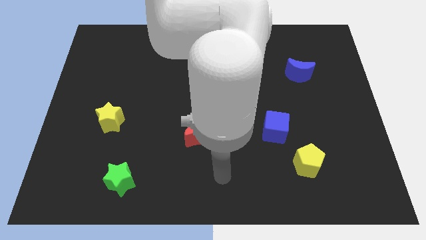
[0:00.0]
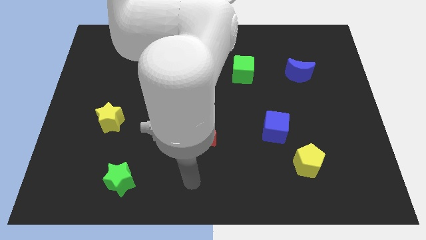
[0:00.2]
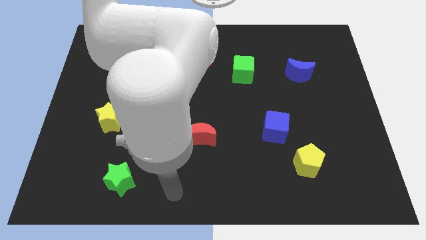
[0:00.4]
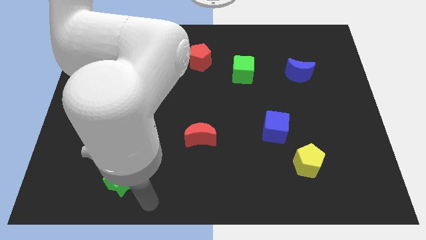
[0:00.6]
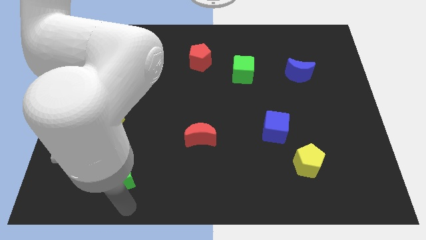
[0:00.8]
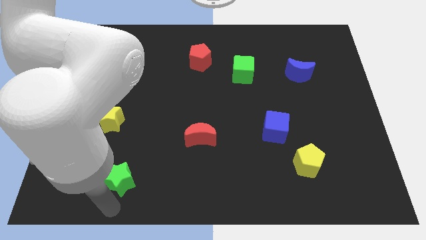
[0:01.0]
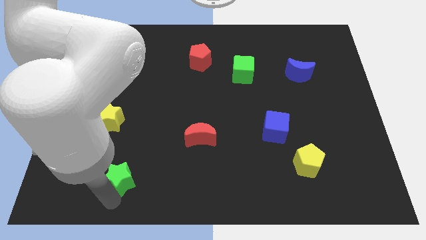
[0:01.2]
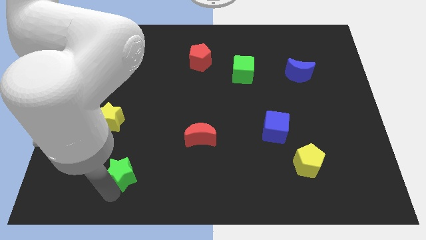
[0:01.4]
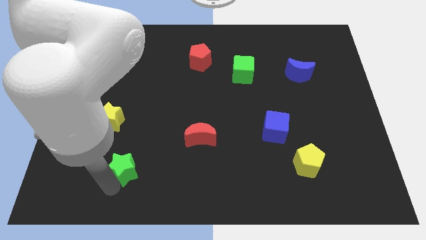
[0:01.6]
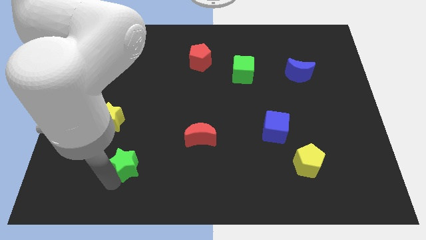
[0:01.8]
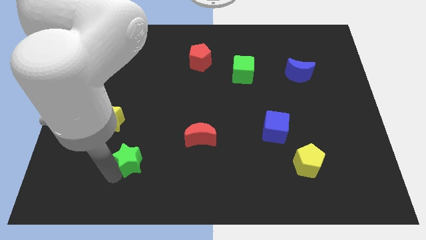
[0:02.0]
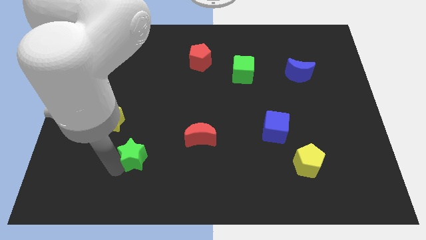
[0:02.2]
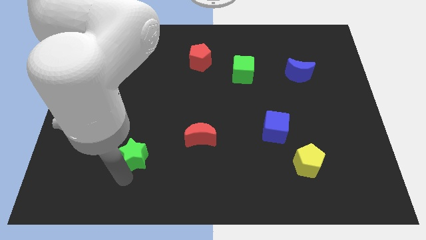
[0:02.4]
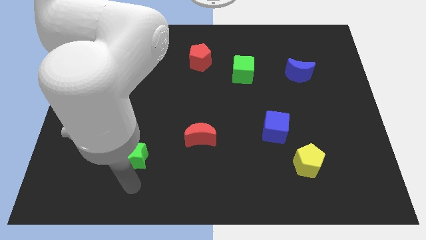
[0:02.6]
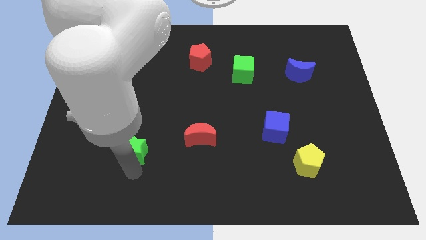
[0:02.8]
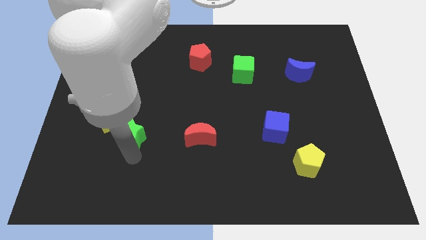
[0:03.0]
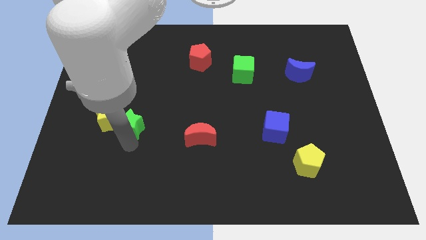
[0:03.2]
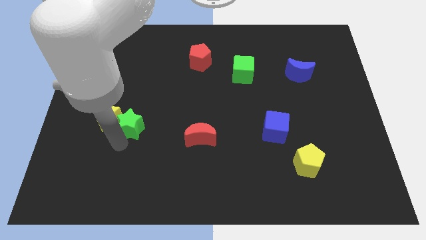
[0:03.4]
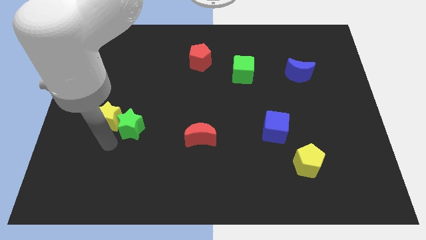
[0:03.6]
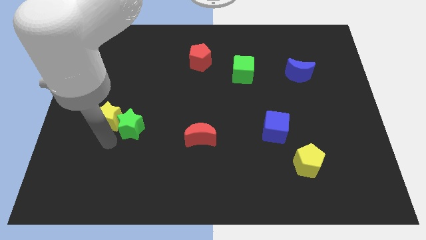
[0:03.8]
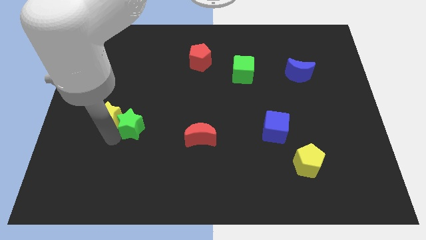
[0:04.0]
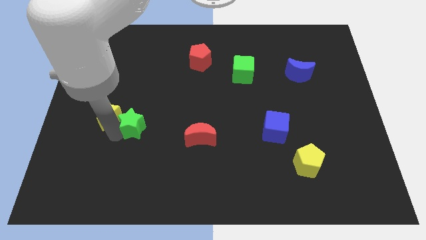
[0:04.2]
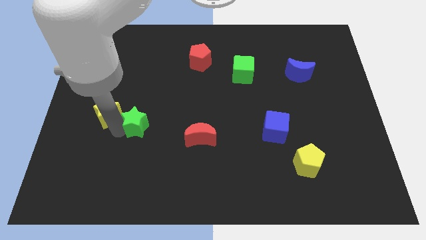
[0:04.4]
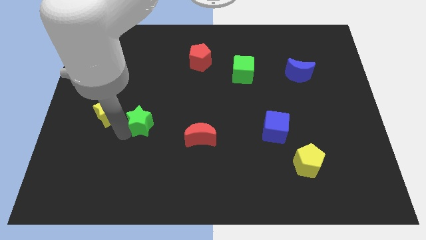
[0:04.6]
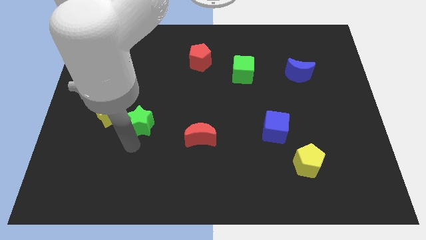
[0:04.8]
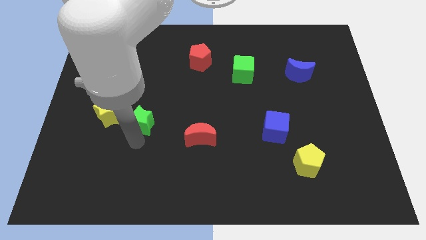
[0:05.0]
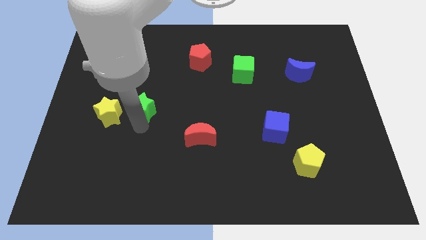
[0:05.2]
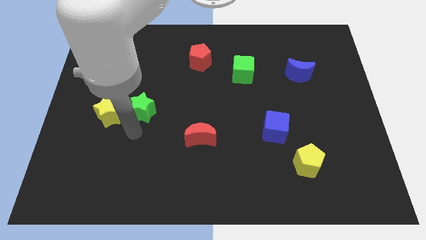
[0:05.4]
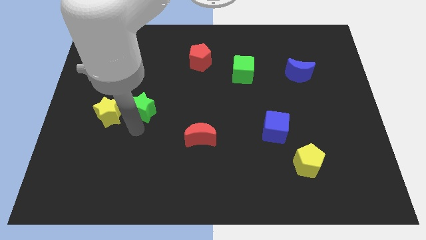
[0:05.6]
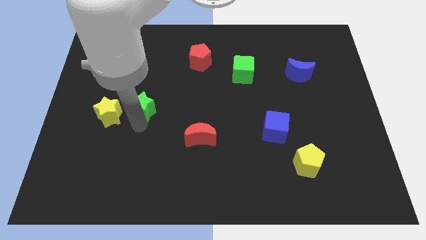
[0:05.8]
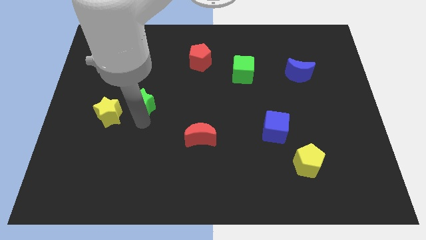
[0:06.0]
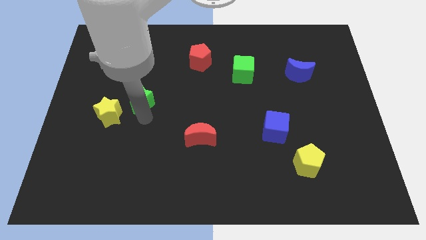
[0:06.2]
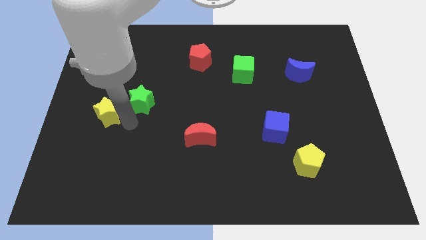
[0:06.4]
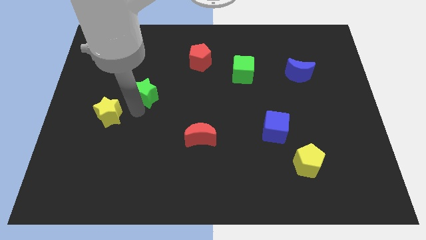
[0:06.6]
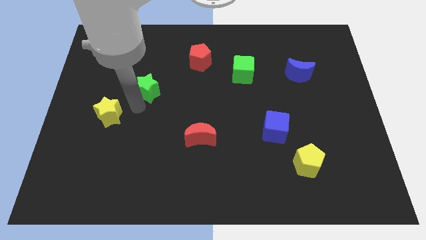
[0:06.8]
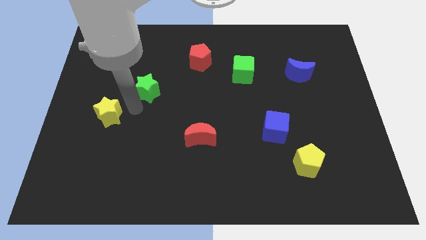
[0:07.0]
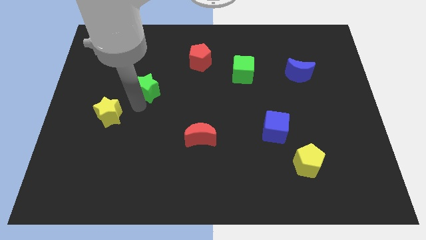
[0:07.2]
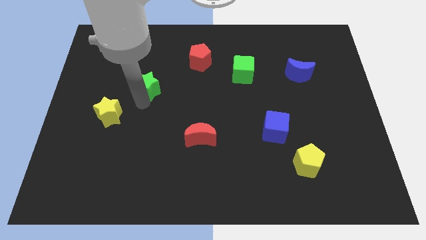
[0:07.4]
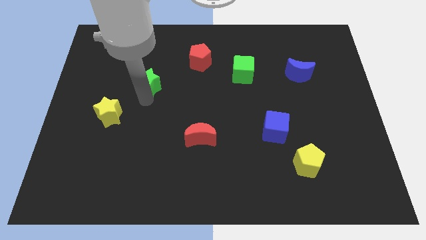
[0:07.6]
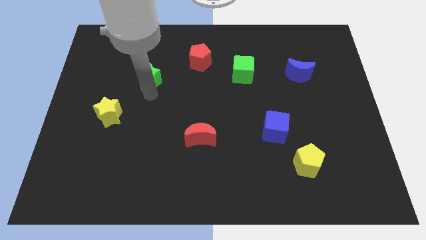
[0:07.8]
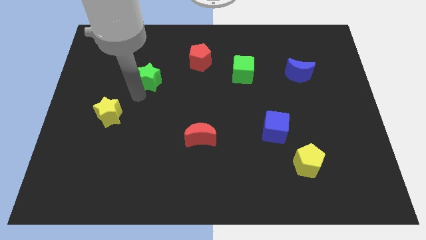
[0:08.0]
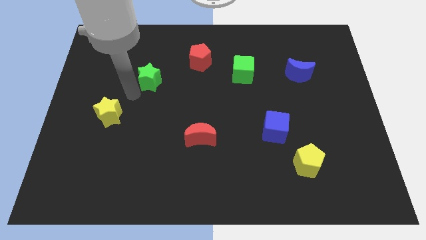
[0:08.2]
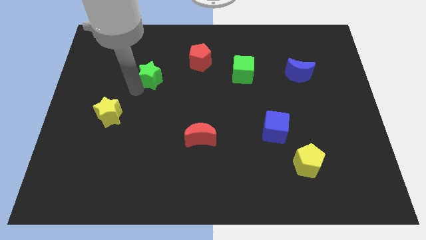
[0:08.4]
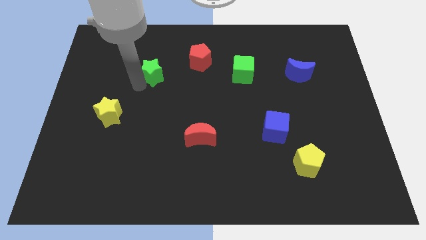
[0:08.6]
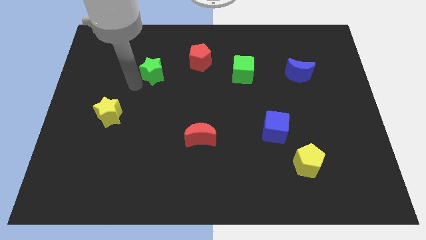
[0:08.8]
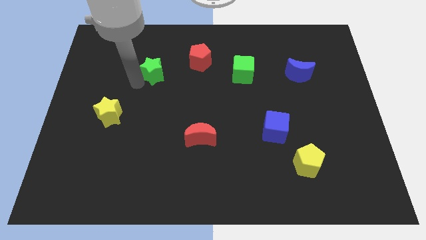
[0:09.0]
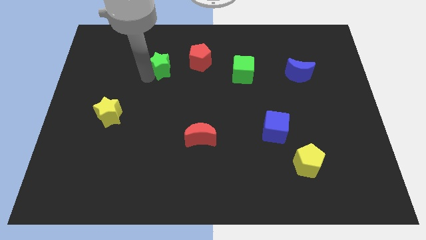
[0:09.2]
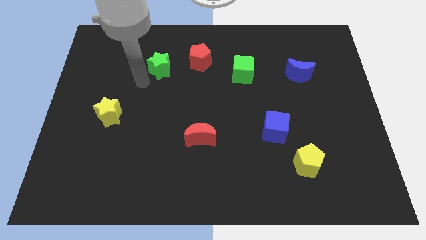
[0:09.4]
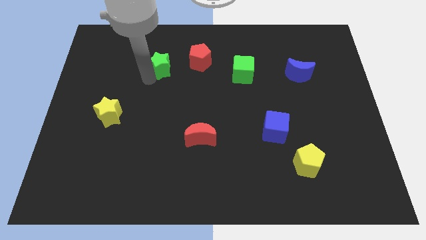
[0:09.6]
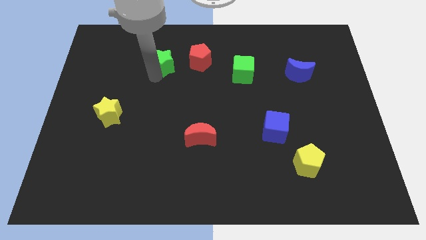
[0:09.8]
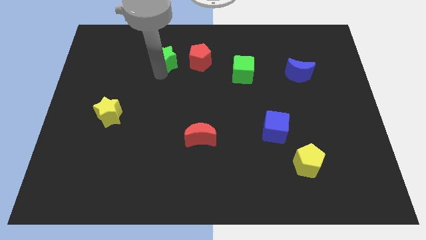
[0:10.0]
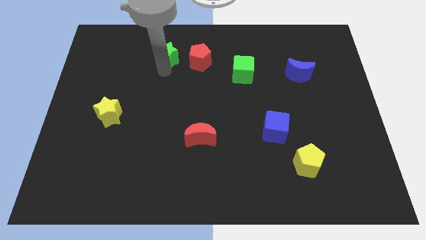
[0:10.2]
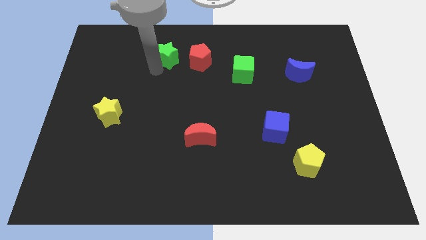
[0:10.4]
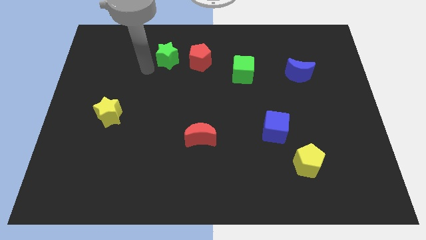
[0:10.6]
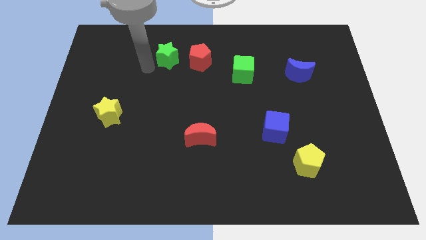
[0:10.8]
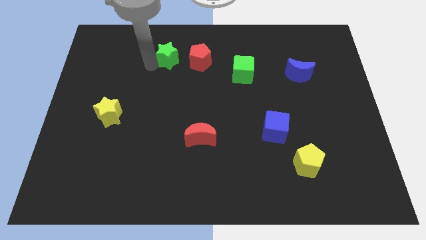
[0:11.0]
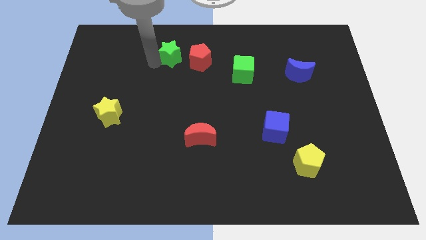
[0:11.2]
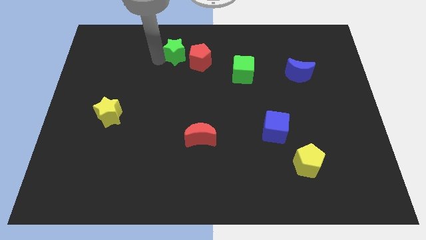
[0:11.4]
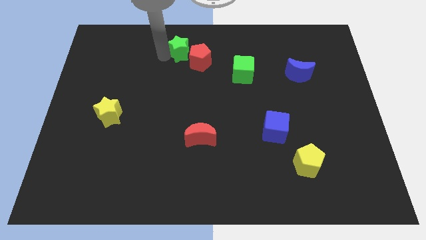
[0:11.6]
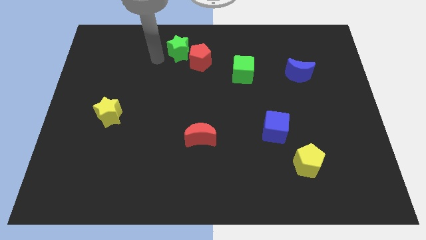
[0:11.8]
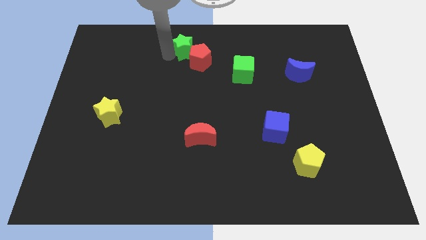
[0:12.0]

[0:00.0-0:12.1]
move the green star to the top

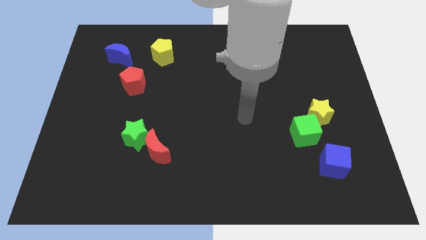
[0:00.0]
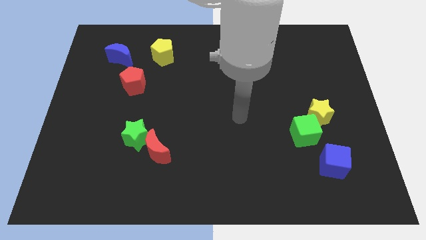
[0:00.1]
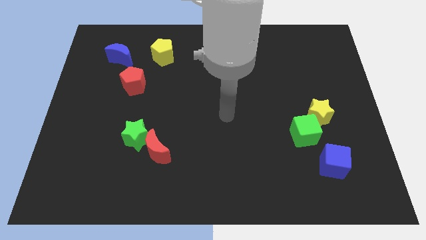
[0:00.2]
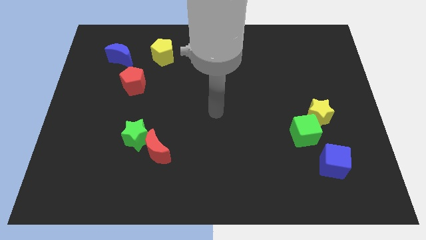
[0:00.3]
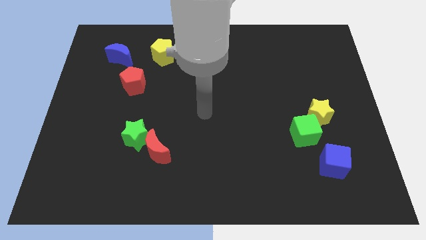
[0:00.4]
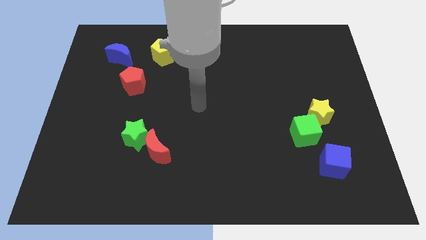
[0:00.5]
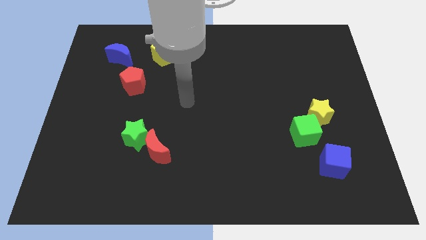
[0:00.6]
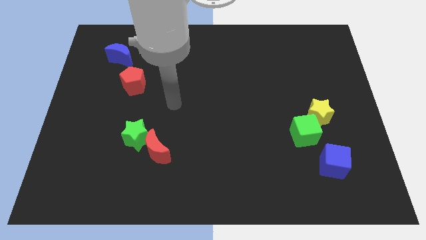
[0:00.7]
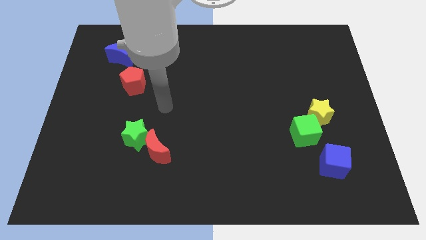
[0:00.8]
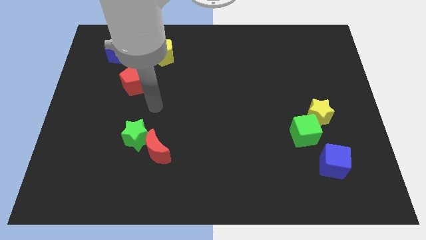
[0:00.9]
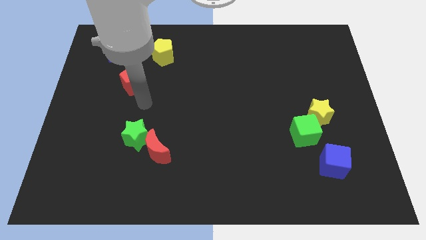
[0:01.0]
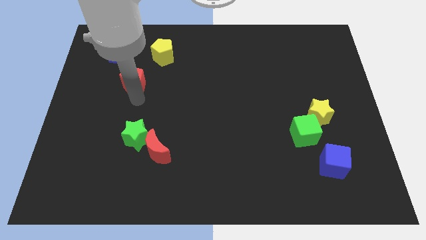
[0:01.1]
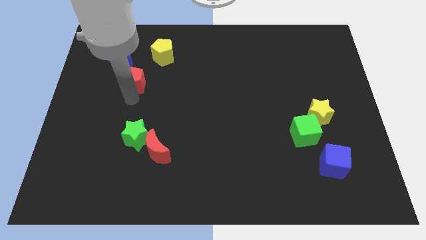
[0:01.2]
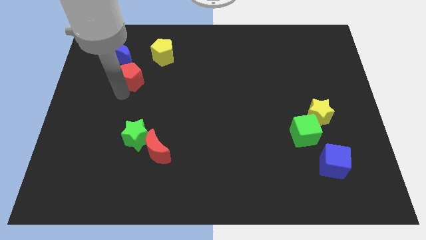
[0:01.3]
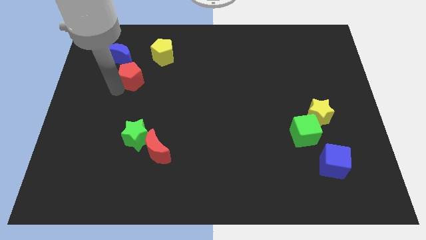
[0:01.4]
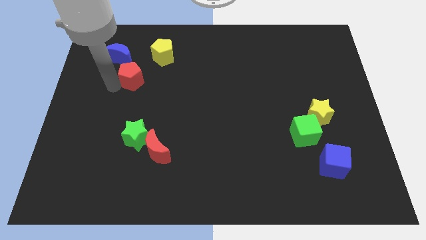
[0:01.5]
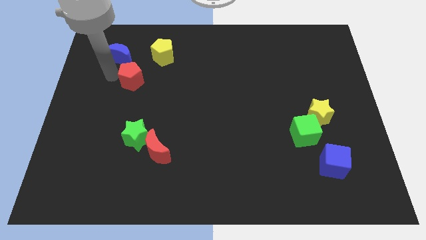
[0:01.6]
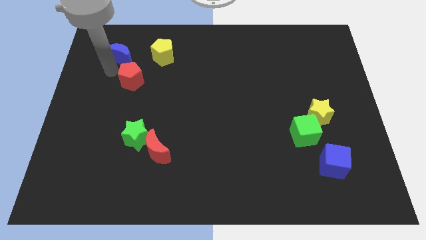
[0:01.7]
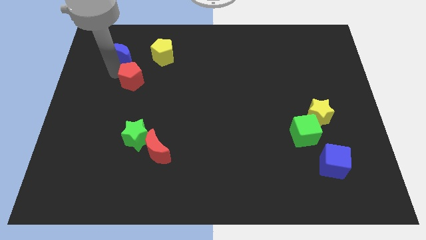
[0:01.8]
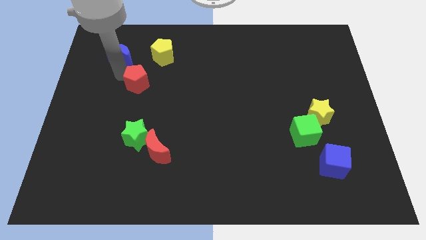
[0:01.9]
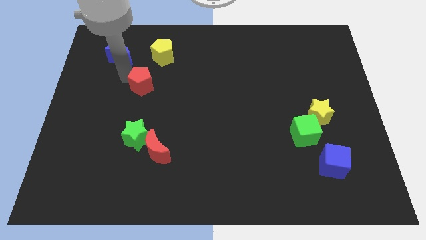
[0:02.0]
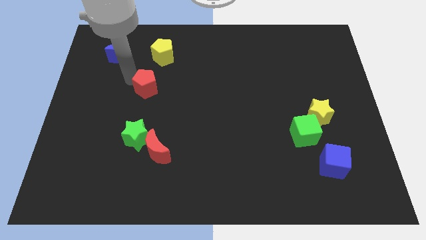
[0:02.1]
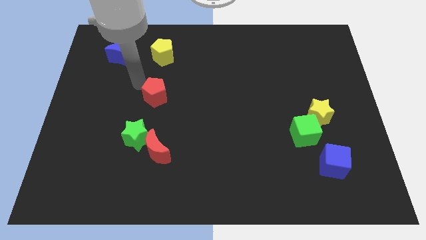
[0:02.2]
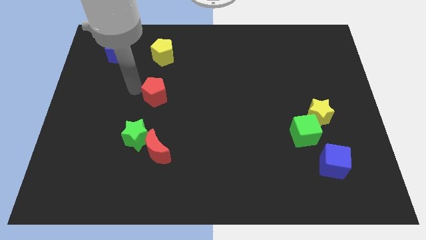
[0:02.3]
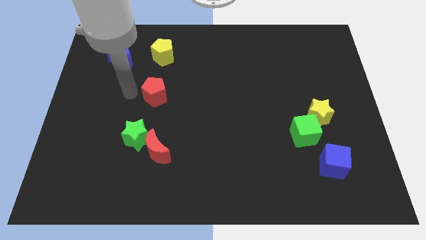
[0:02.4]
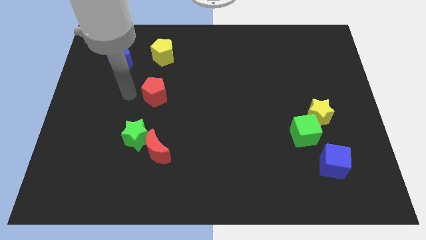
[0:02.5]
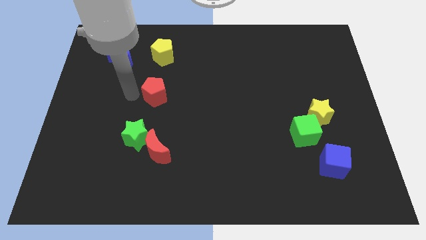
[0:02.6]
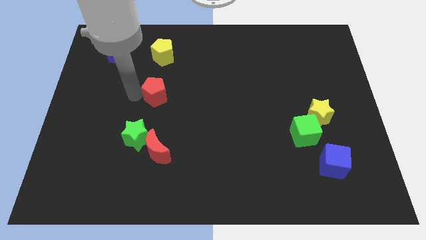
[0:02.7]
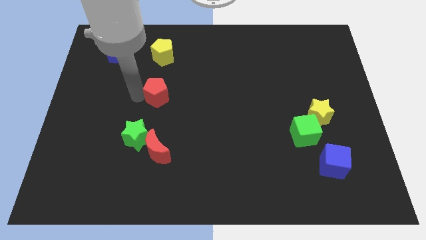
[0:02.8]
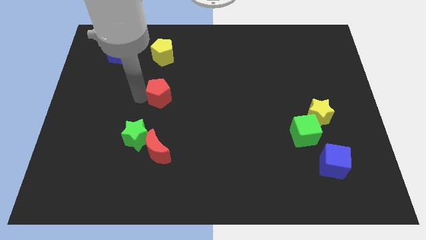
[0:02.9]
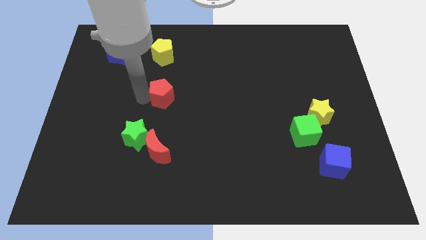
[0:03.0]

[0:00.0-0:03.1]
move the red pentagon to the center
